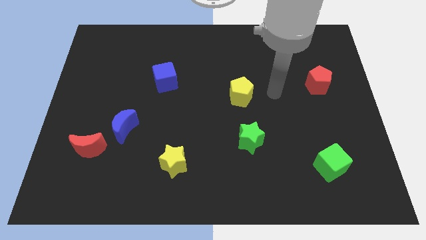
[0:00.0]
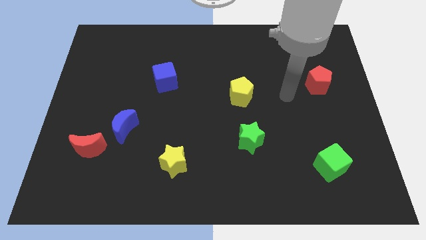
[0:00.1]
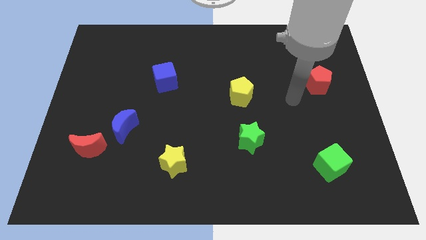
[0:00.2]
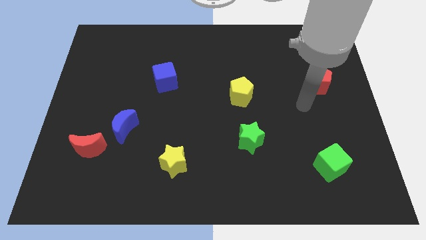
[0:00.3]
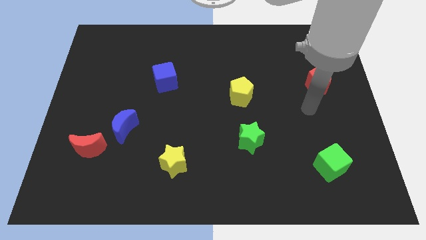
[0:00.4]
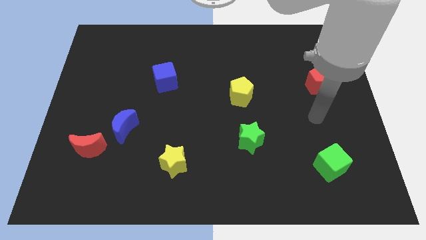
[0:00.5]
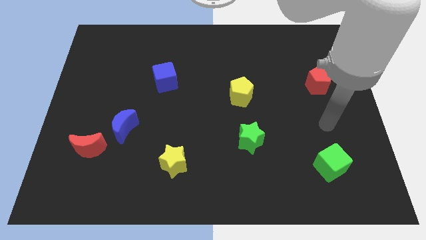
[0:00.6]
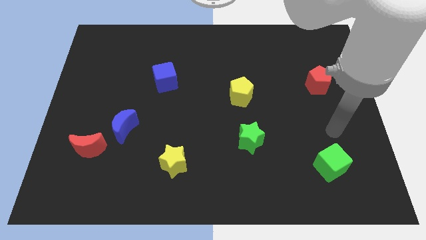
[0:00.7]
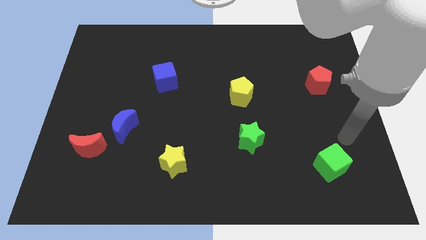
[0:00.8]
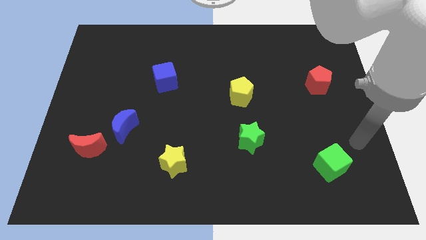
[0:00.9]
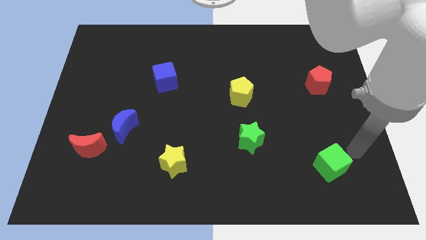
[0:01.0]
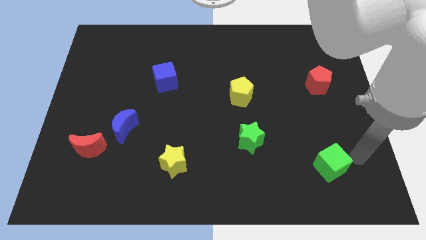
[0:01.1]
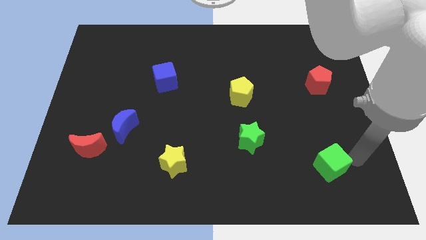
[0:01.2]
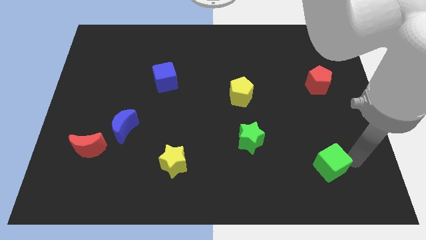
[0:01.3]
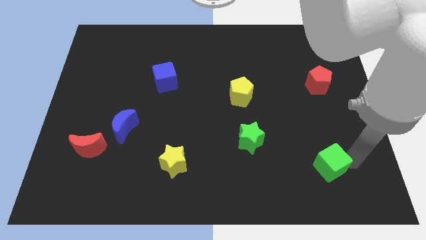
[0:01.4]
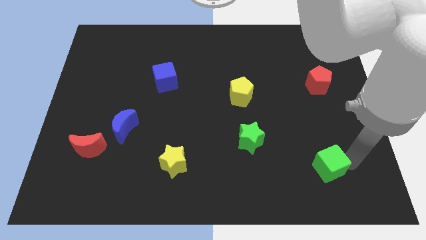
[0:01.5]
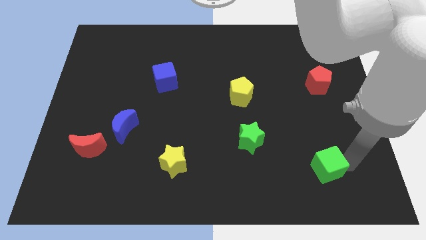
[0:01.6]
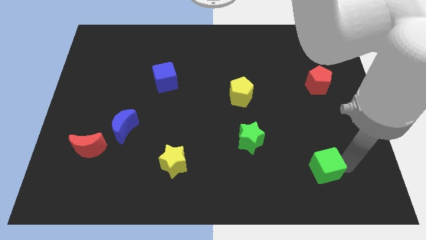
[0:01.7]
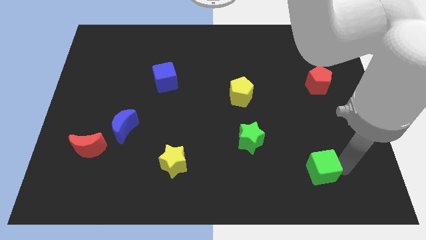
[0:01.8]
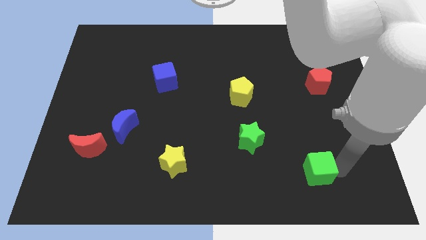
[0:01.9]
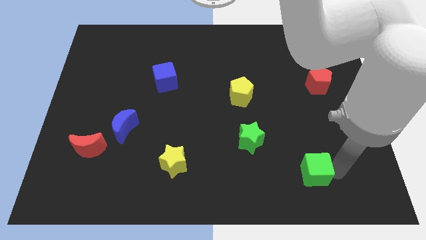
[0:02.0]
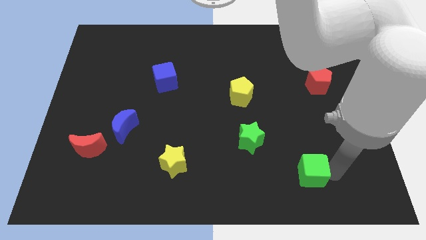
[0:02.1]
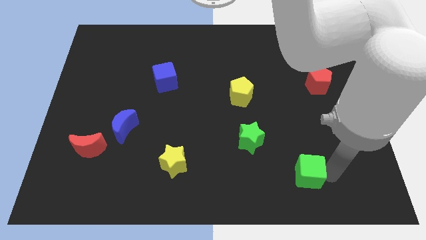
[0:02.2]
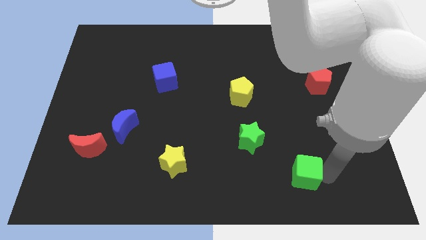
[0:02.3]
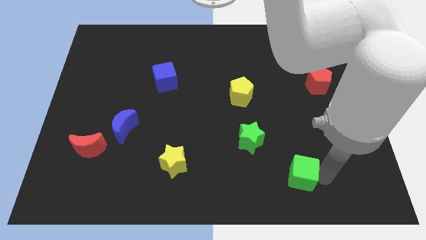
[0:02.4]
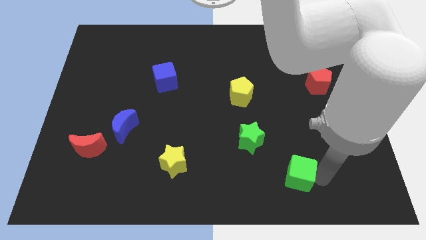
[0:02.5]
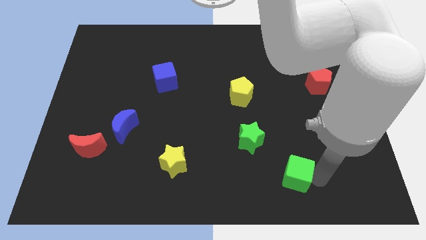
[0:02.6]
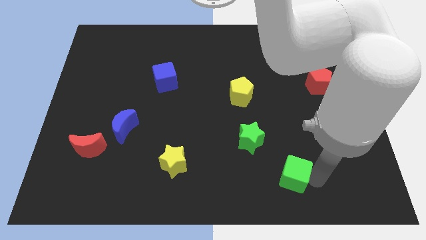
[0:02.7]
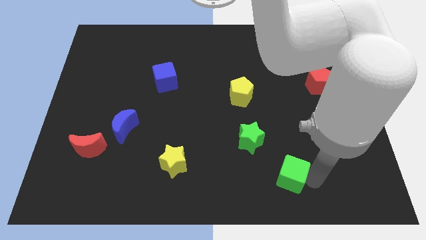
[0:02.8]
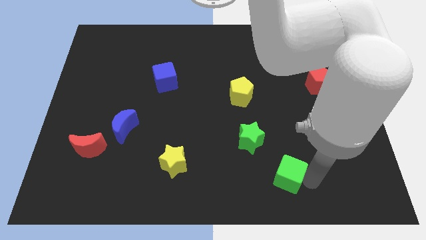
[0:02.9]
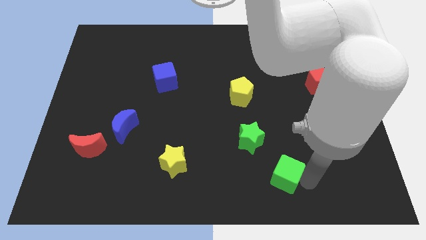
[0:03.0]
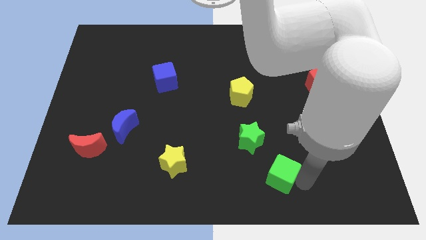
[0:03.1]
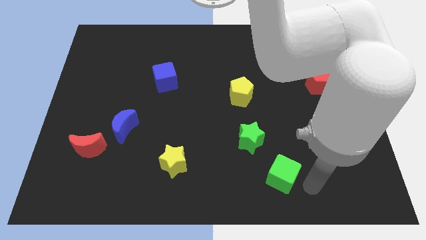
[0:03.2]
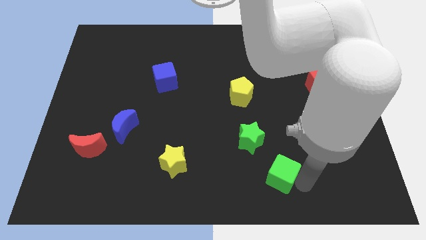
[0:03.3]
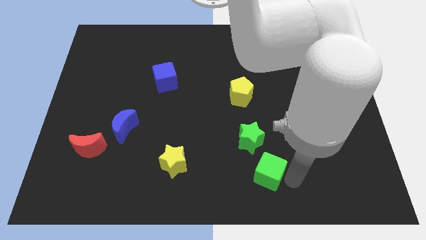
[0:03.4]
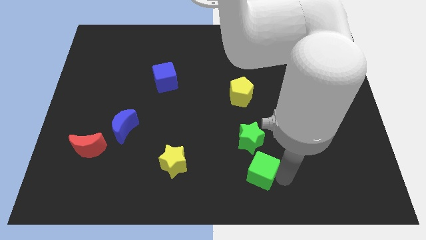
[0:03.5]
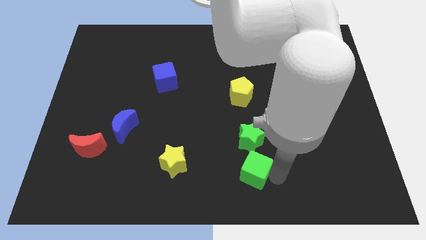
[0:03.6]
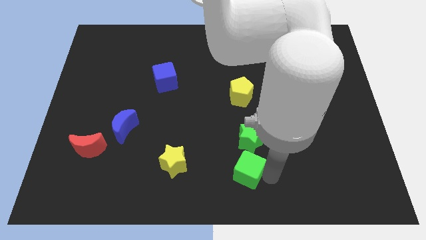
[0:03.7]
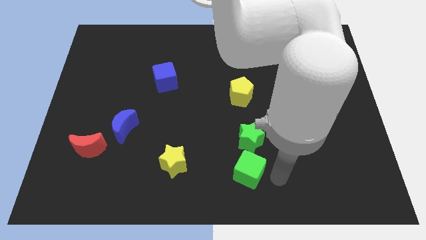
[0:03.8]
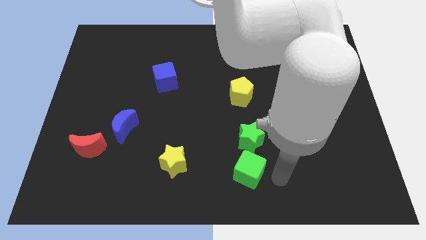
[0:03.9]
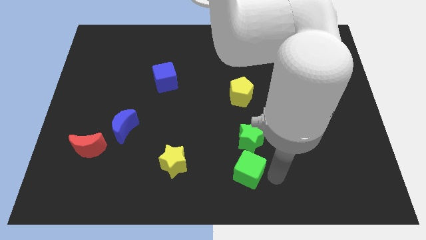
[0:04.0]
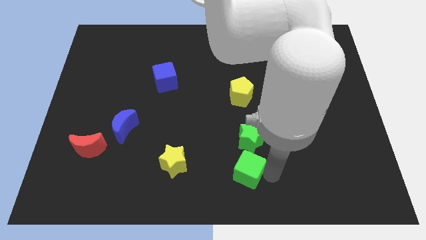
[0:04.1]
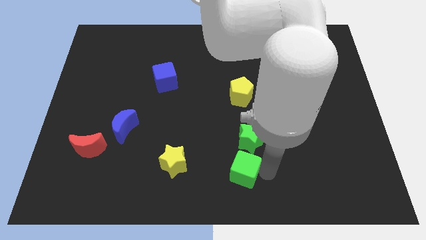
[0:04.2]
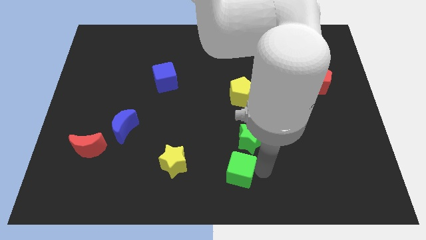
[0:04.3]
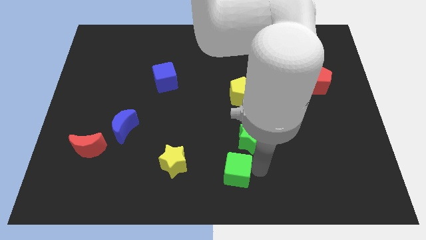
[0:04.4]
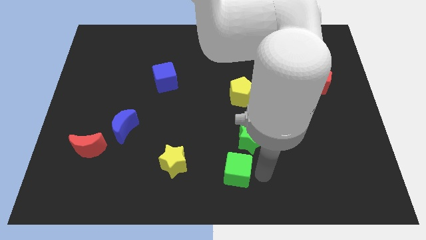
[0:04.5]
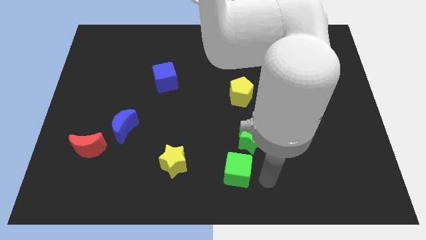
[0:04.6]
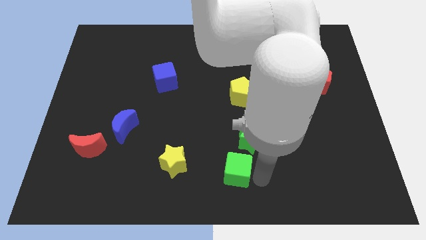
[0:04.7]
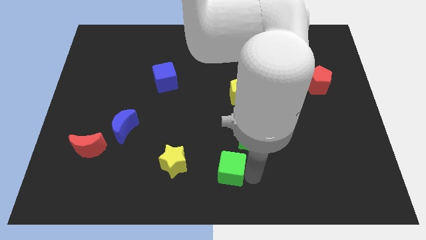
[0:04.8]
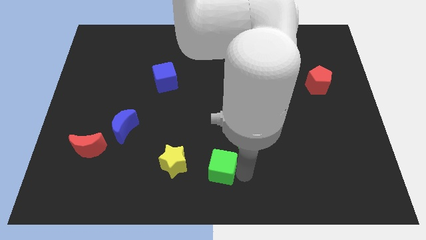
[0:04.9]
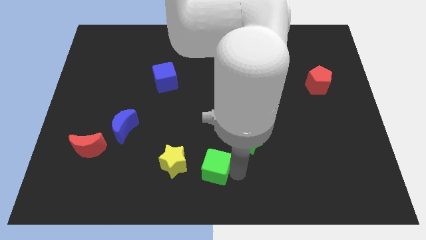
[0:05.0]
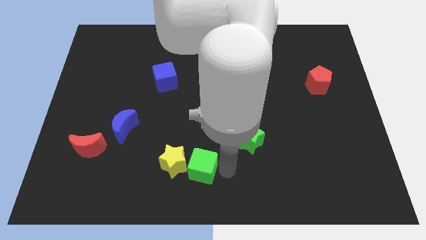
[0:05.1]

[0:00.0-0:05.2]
move the green cube close to the yellow star

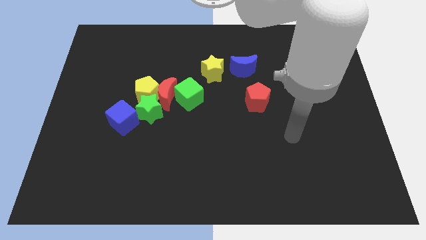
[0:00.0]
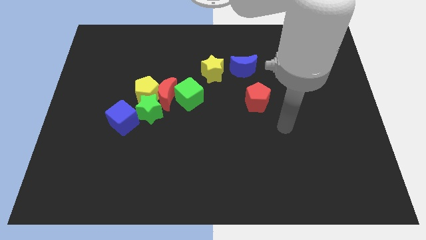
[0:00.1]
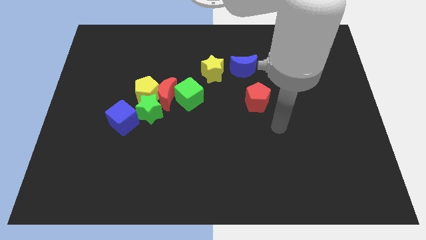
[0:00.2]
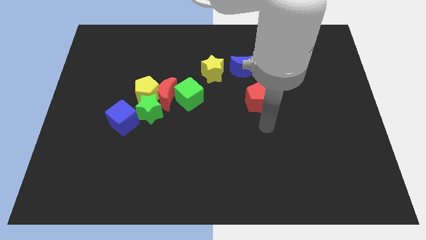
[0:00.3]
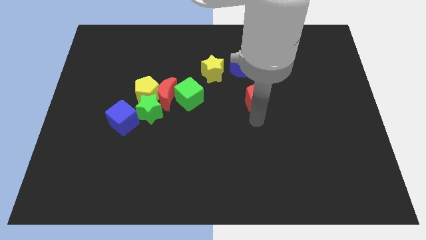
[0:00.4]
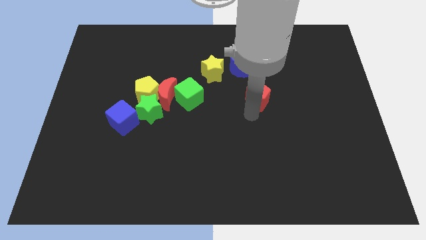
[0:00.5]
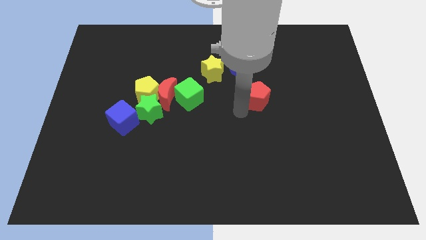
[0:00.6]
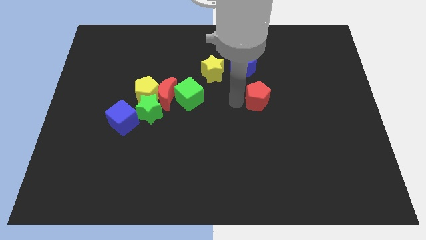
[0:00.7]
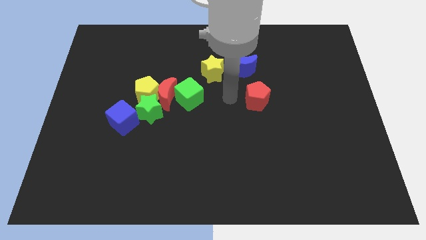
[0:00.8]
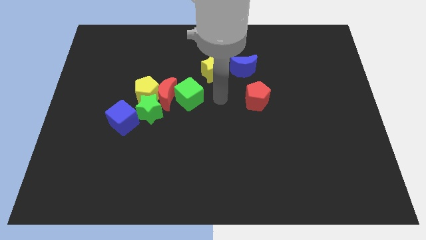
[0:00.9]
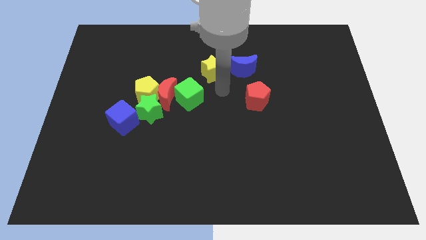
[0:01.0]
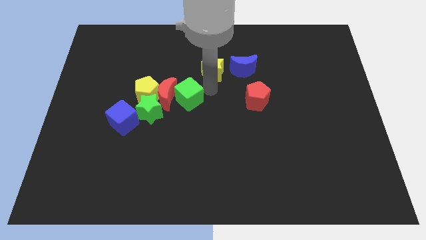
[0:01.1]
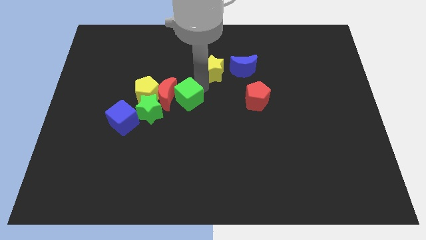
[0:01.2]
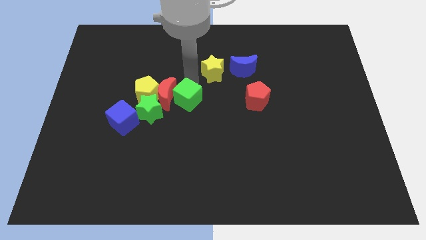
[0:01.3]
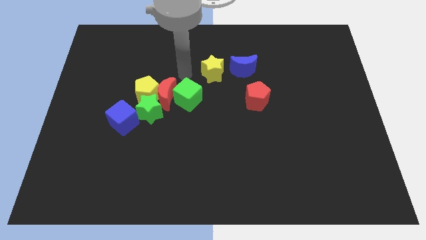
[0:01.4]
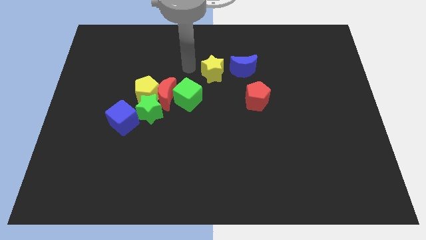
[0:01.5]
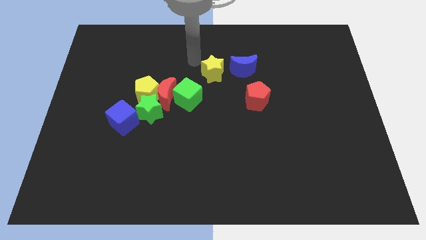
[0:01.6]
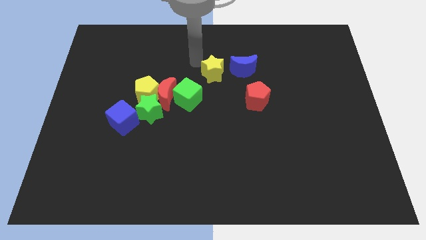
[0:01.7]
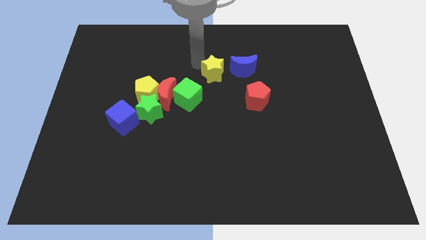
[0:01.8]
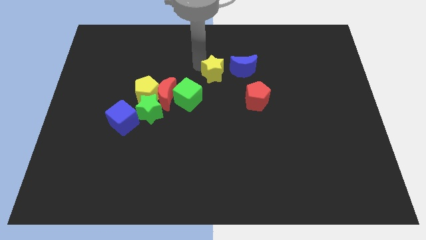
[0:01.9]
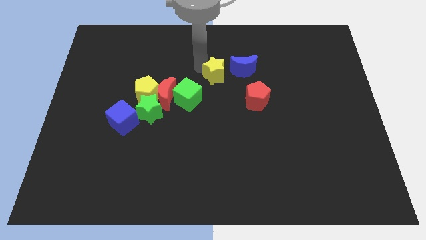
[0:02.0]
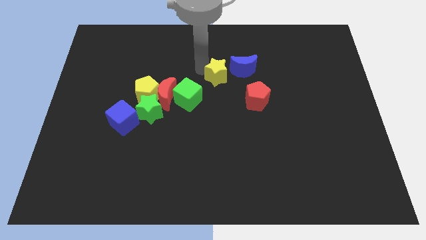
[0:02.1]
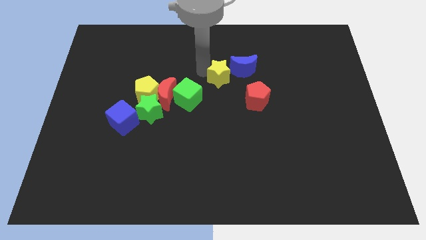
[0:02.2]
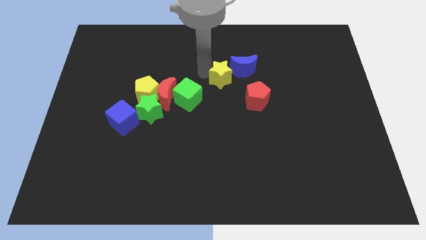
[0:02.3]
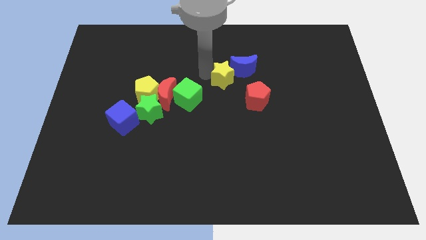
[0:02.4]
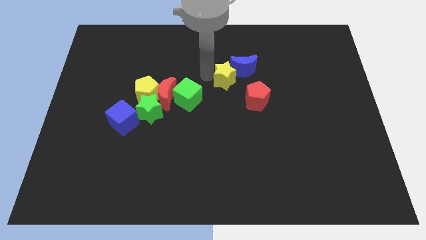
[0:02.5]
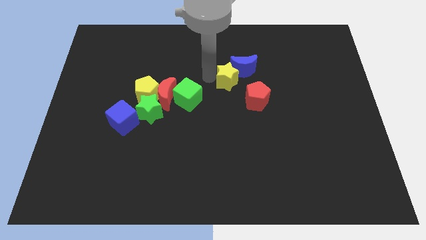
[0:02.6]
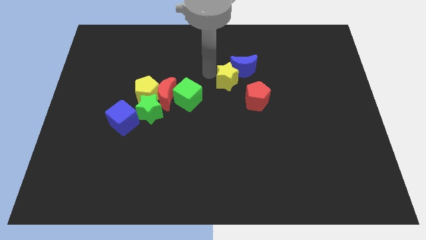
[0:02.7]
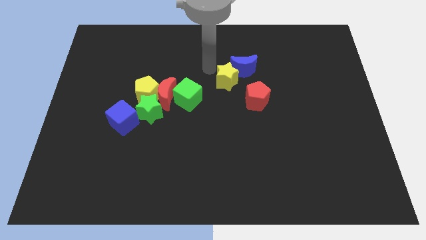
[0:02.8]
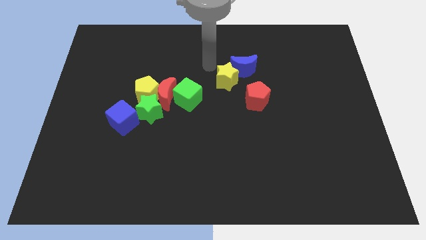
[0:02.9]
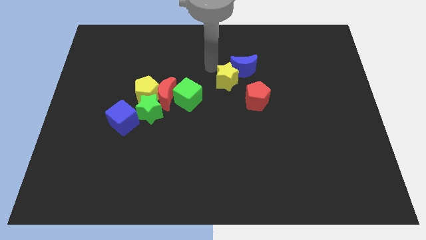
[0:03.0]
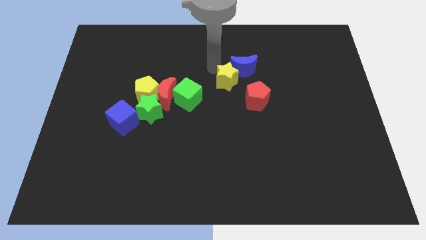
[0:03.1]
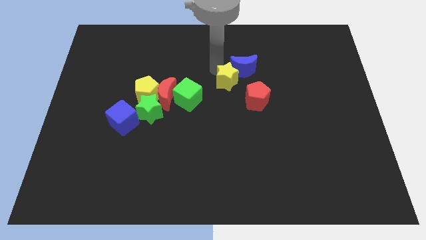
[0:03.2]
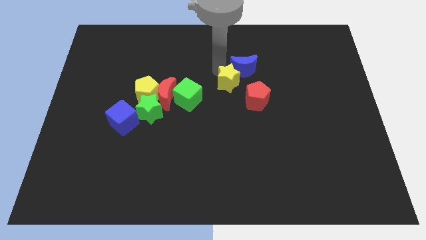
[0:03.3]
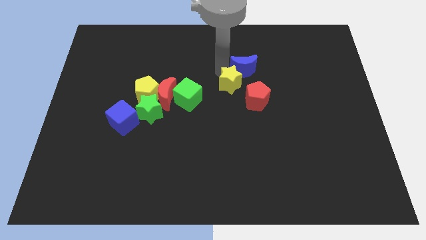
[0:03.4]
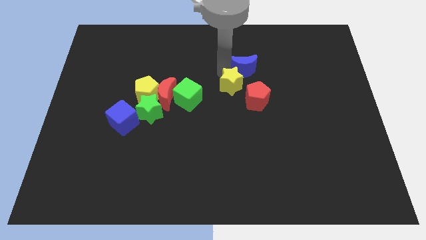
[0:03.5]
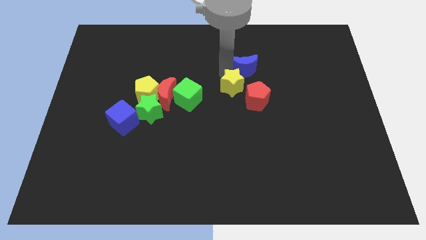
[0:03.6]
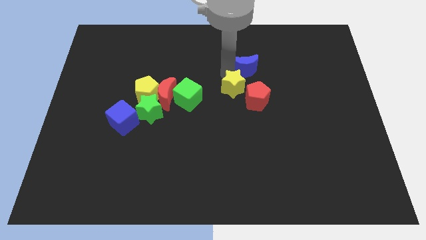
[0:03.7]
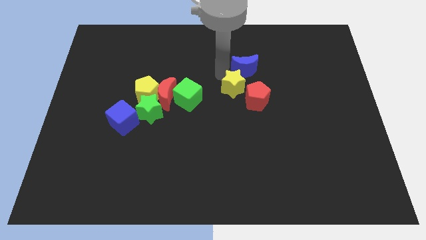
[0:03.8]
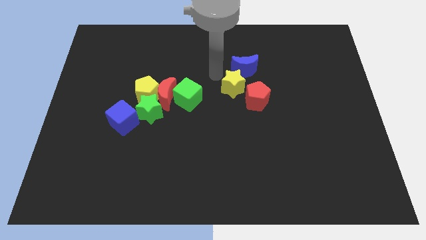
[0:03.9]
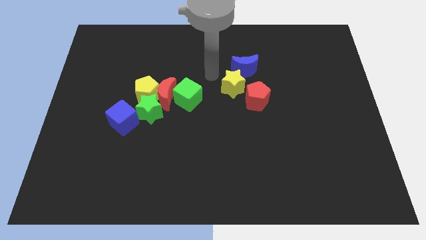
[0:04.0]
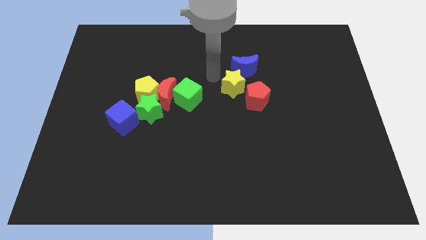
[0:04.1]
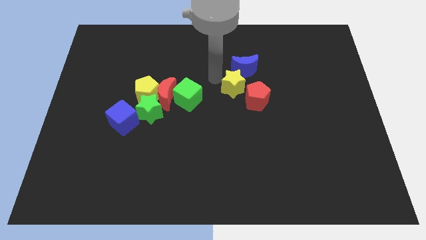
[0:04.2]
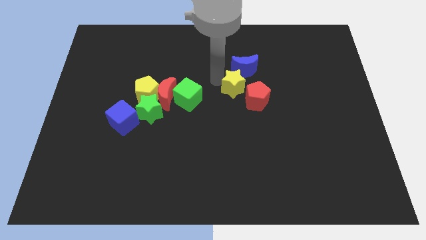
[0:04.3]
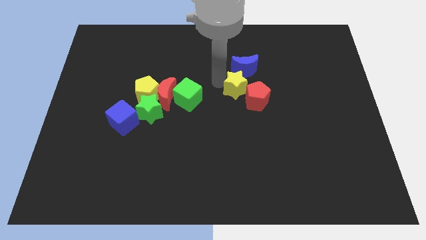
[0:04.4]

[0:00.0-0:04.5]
push the yellow star next to the red pentagon
